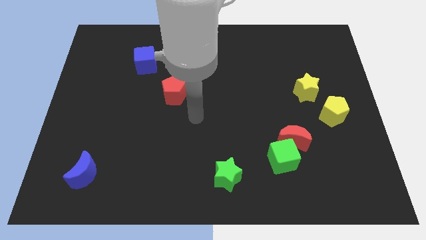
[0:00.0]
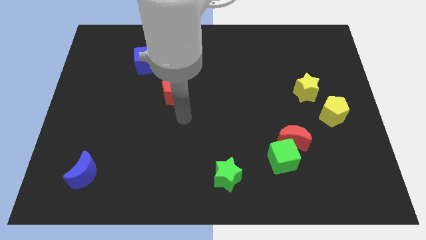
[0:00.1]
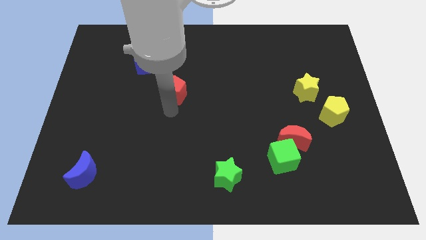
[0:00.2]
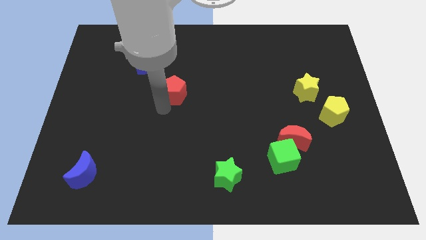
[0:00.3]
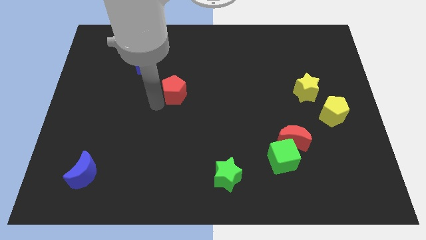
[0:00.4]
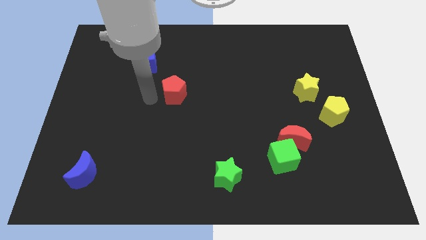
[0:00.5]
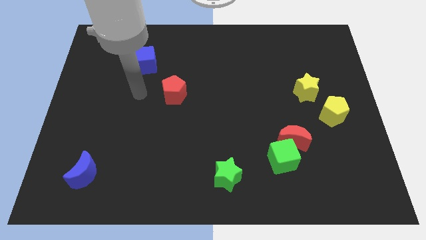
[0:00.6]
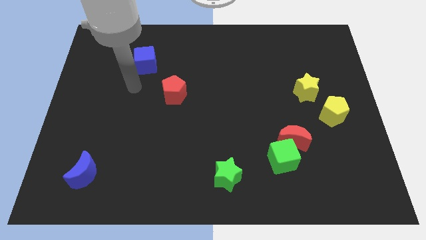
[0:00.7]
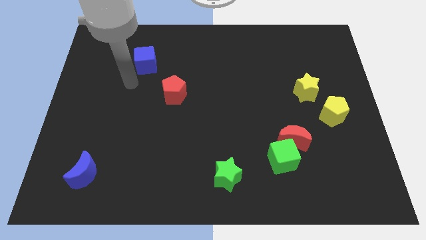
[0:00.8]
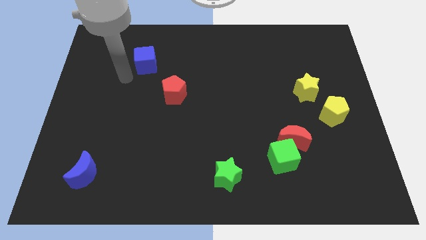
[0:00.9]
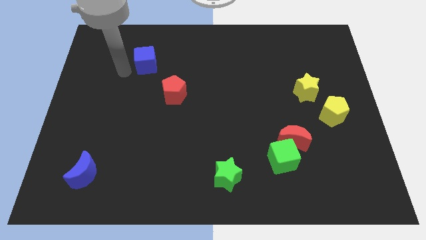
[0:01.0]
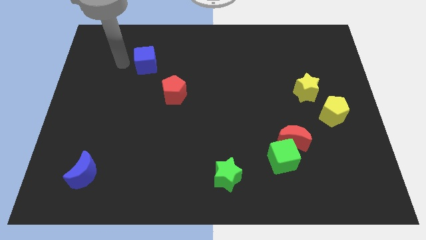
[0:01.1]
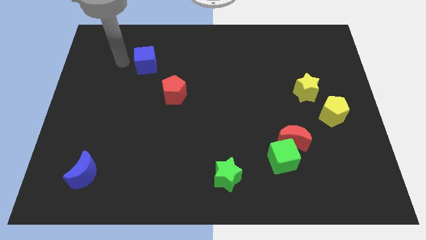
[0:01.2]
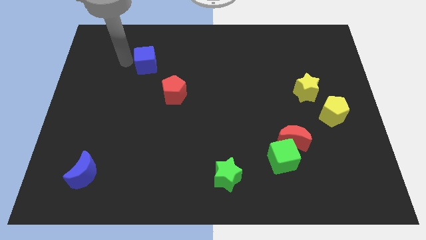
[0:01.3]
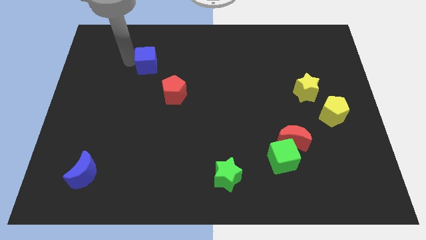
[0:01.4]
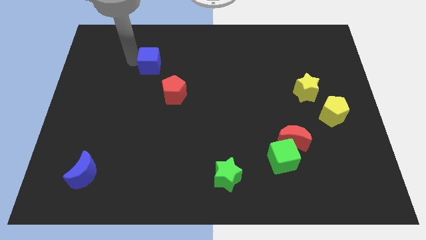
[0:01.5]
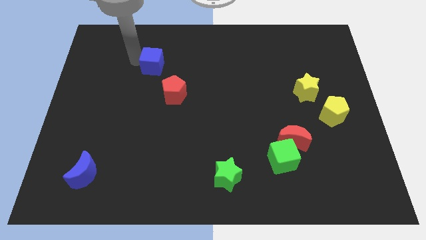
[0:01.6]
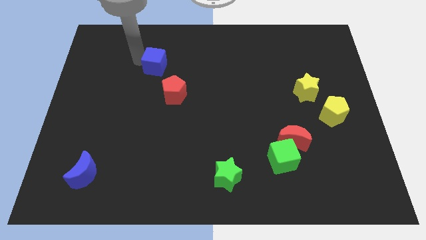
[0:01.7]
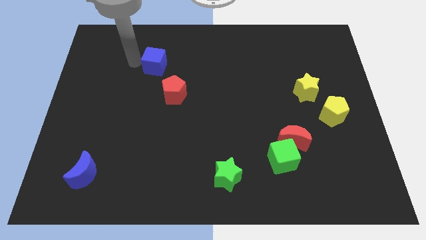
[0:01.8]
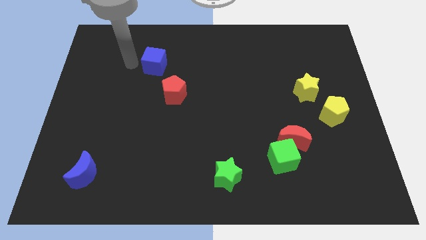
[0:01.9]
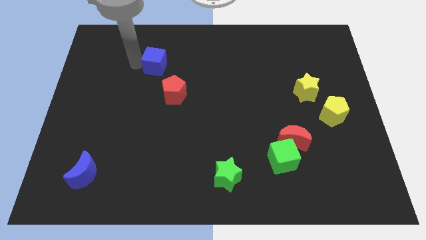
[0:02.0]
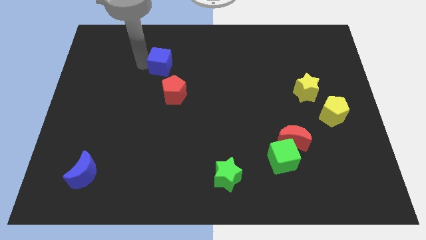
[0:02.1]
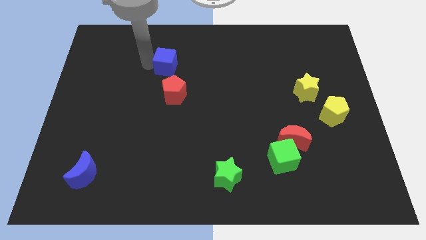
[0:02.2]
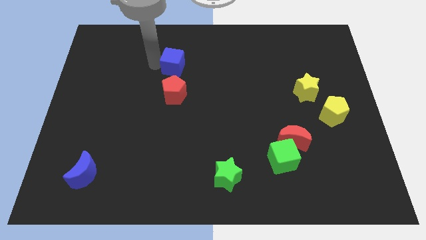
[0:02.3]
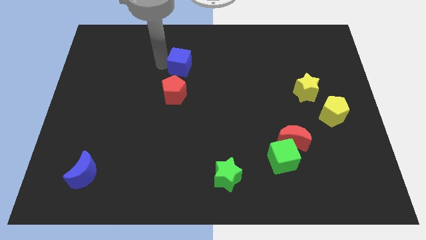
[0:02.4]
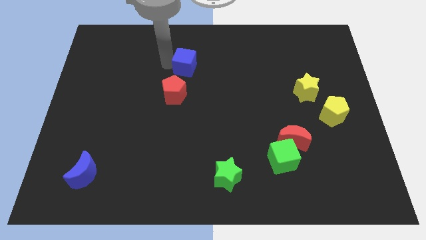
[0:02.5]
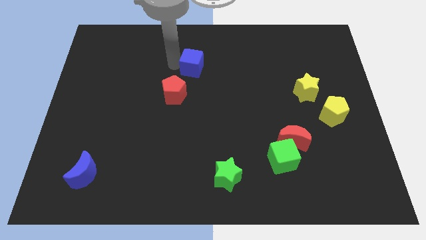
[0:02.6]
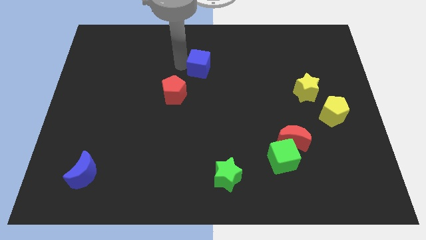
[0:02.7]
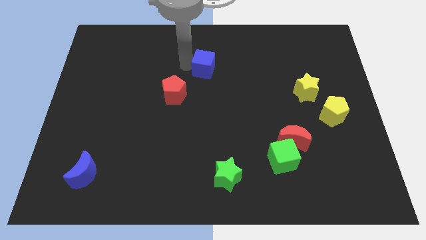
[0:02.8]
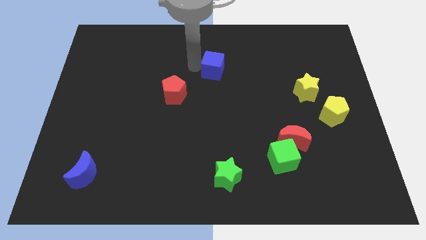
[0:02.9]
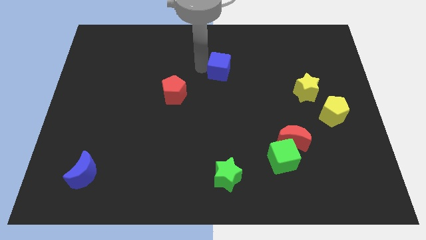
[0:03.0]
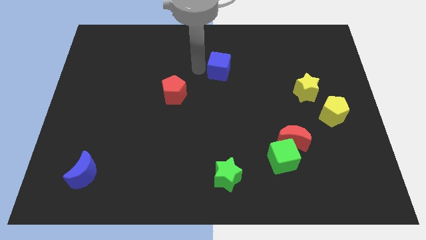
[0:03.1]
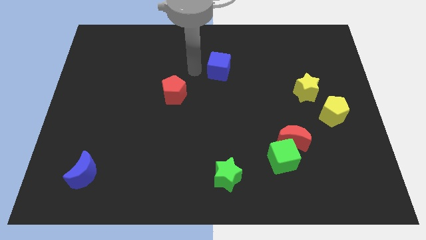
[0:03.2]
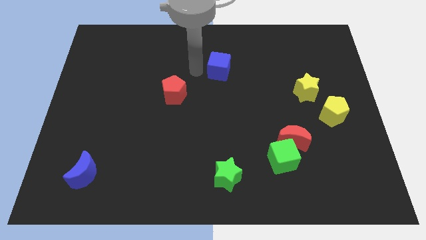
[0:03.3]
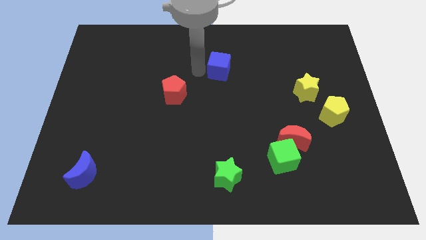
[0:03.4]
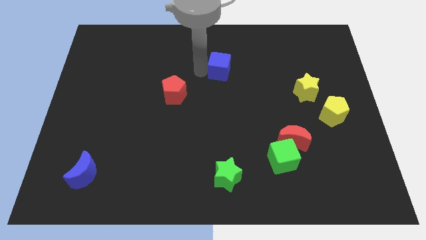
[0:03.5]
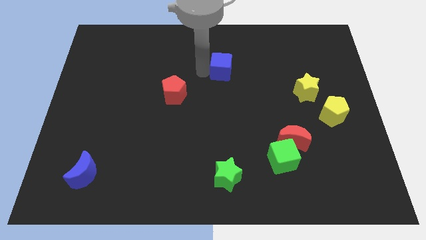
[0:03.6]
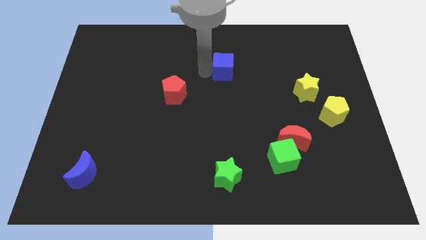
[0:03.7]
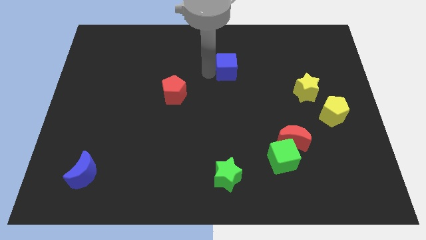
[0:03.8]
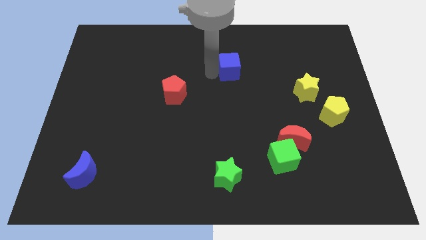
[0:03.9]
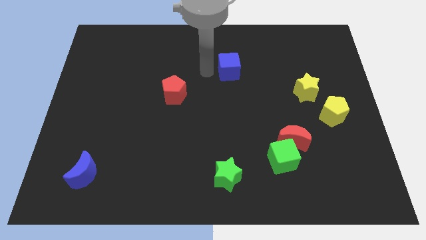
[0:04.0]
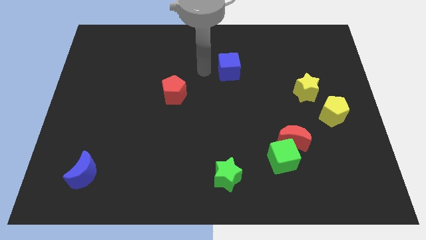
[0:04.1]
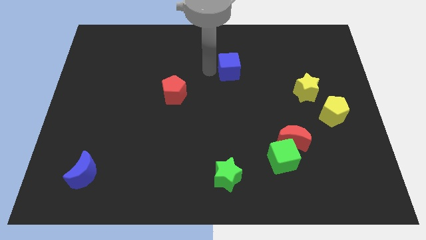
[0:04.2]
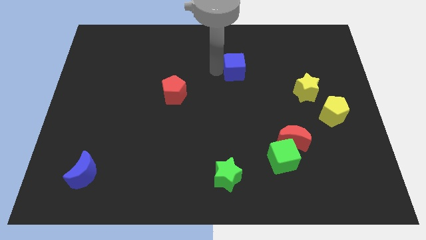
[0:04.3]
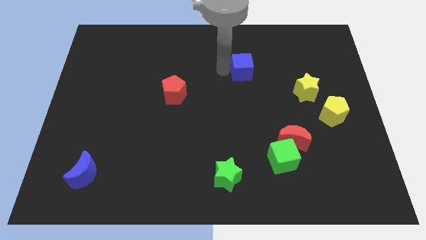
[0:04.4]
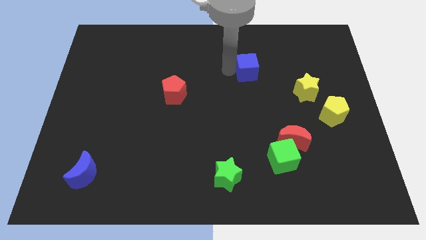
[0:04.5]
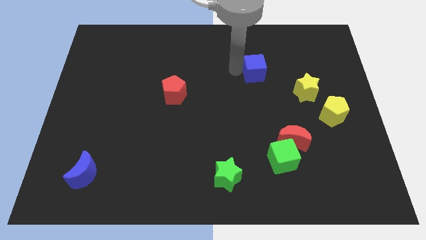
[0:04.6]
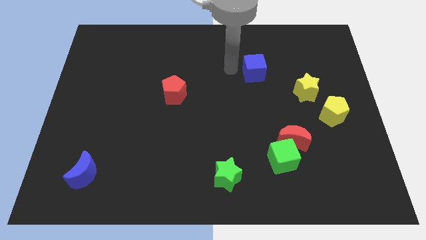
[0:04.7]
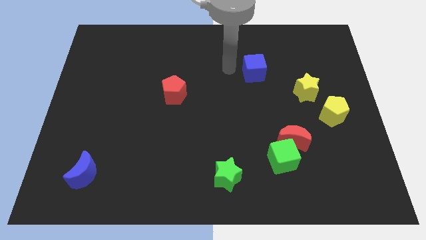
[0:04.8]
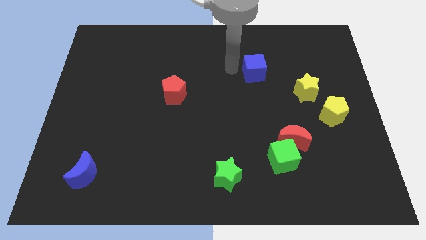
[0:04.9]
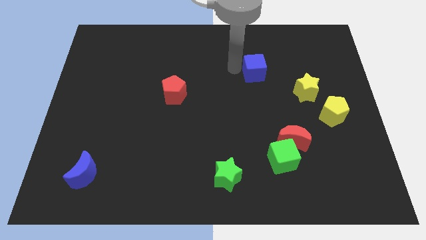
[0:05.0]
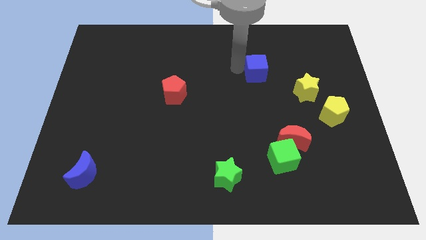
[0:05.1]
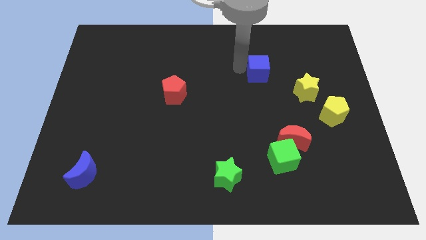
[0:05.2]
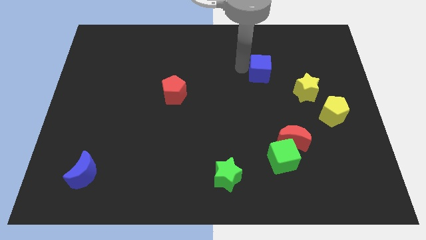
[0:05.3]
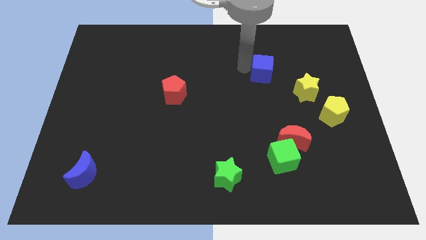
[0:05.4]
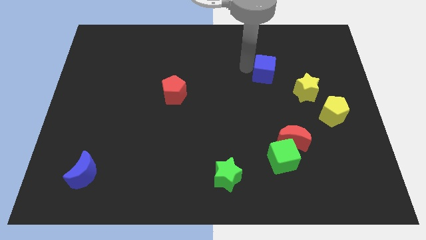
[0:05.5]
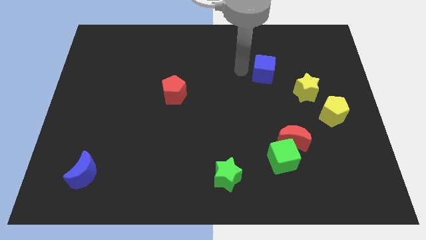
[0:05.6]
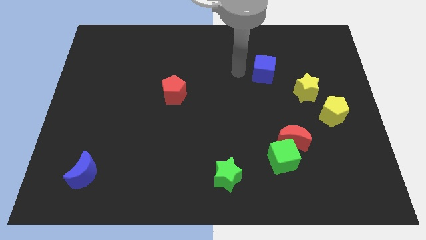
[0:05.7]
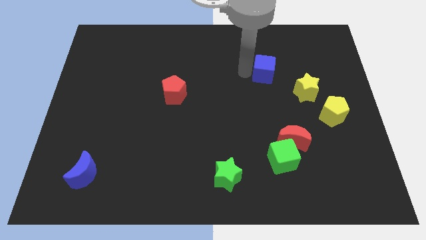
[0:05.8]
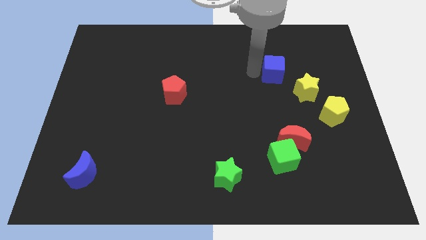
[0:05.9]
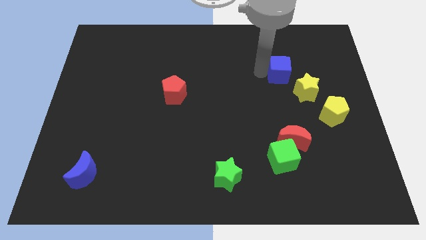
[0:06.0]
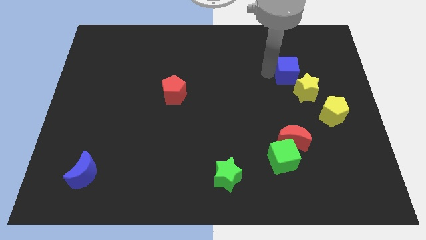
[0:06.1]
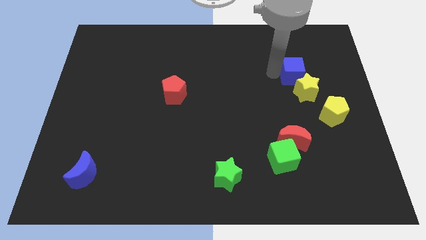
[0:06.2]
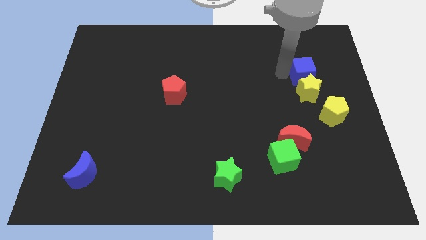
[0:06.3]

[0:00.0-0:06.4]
move the blue cube to the top right of the yellow star

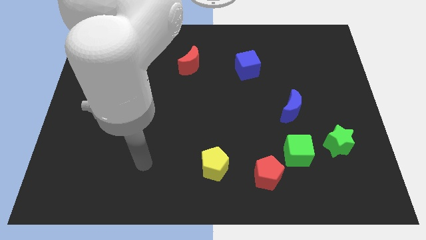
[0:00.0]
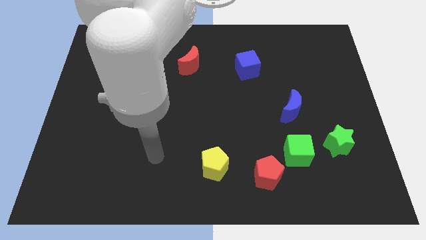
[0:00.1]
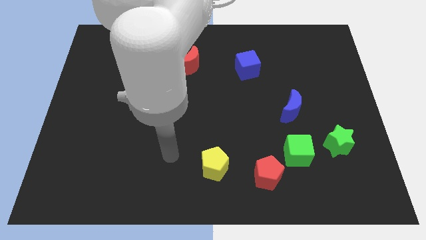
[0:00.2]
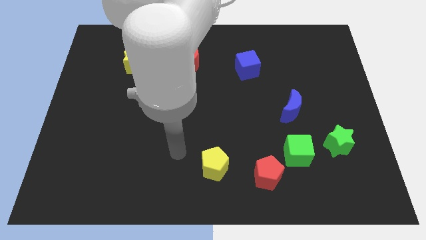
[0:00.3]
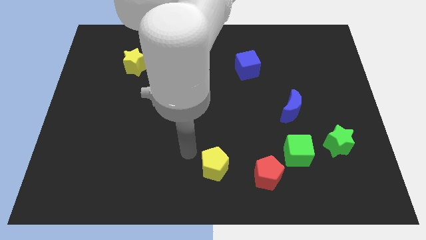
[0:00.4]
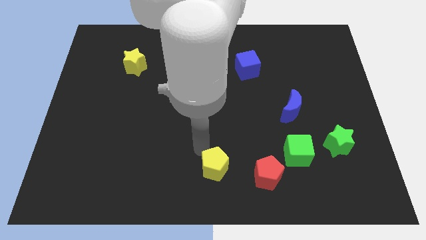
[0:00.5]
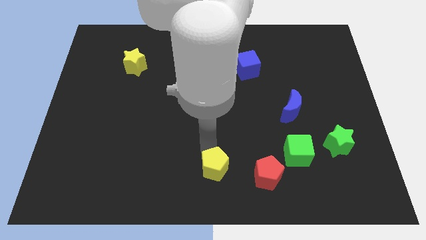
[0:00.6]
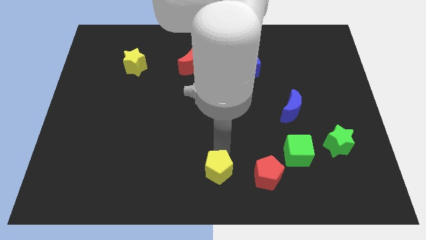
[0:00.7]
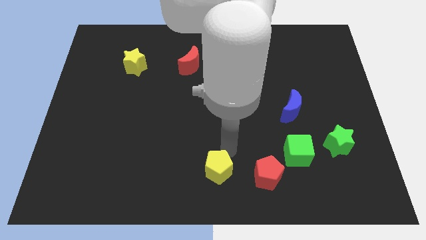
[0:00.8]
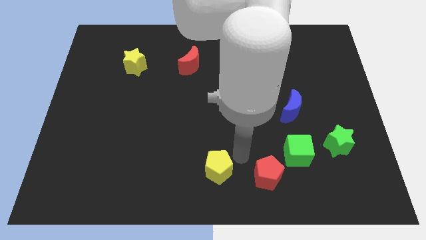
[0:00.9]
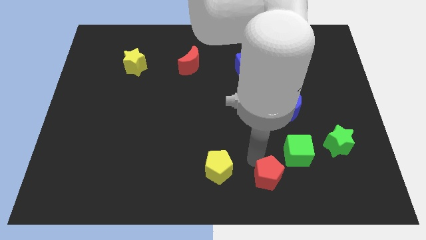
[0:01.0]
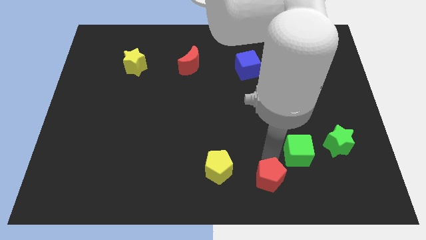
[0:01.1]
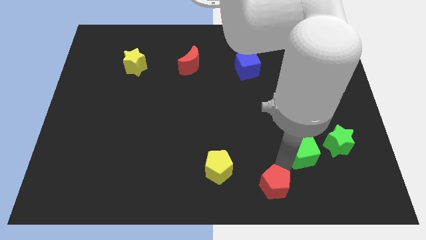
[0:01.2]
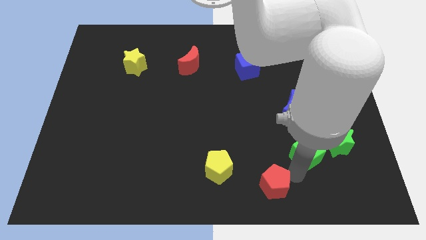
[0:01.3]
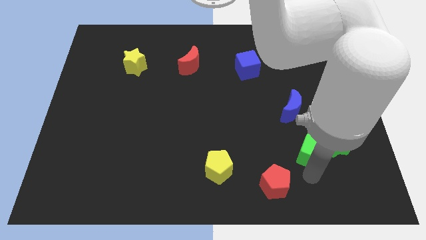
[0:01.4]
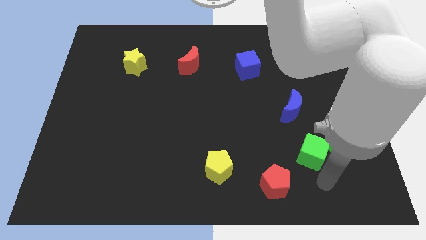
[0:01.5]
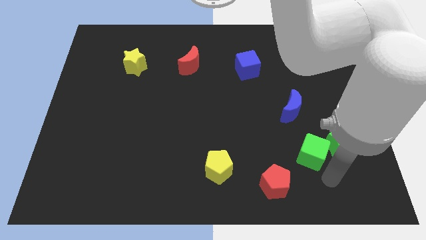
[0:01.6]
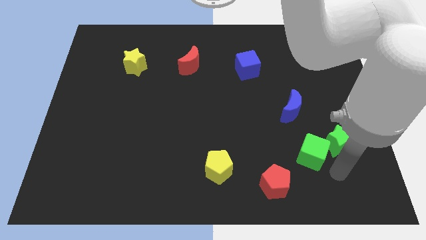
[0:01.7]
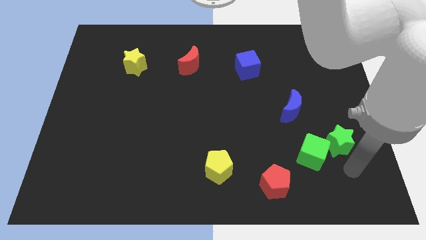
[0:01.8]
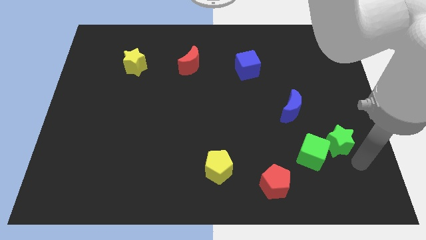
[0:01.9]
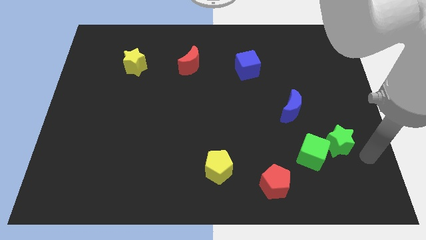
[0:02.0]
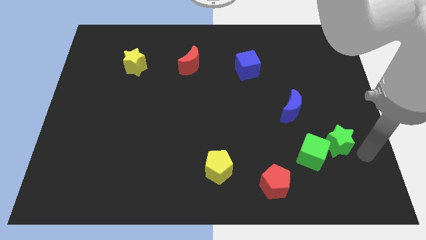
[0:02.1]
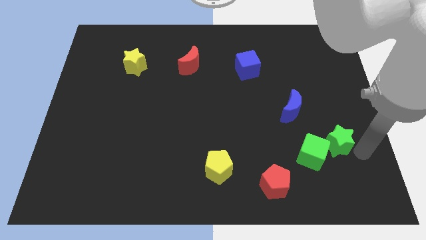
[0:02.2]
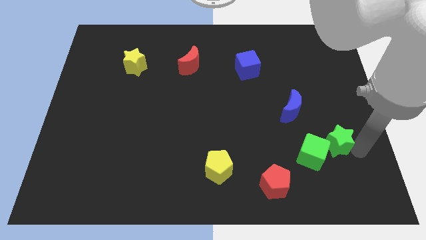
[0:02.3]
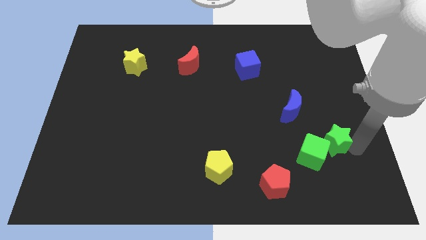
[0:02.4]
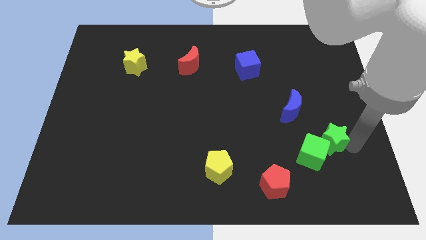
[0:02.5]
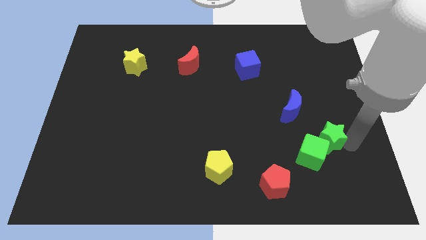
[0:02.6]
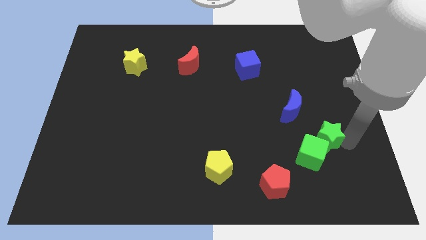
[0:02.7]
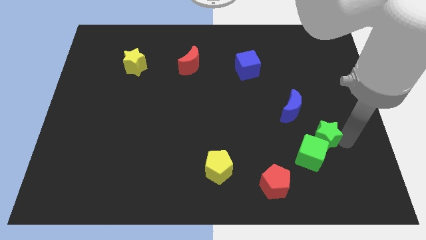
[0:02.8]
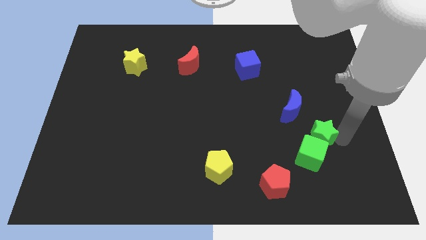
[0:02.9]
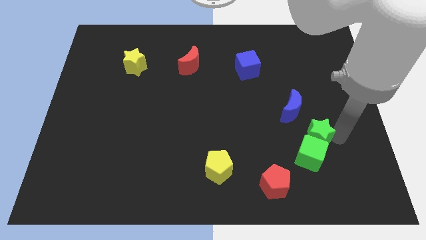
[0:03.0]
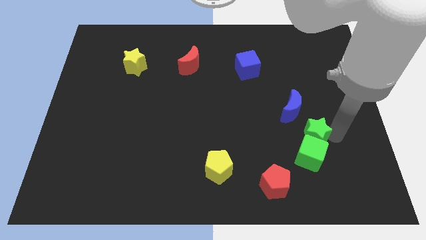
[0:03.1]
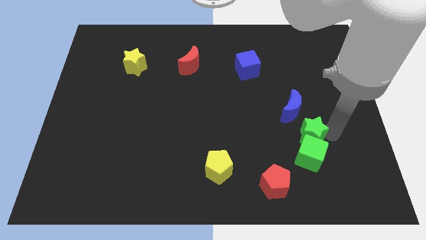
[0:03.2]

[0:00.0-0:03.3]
slide the green star to the top left side of the green cube
